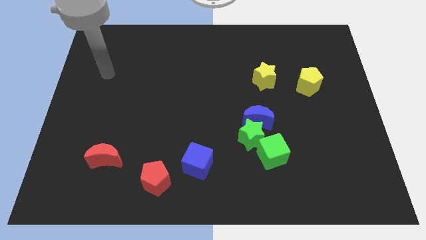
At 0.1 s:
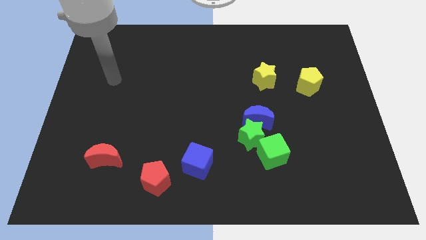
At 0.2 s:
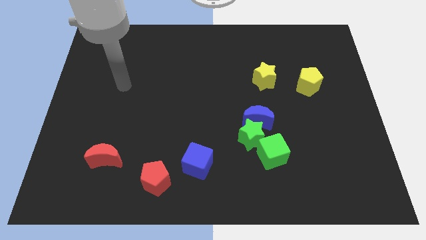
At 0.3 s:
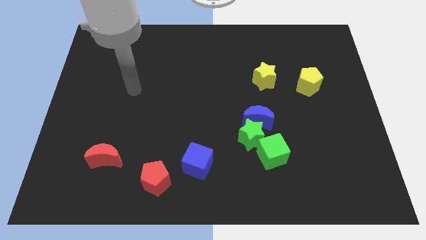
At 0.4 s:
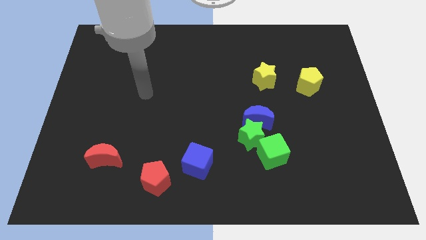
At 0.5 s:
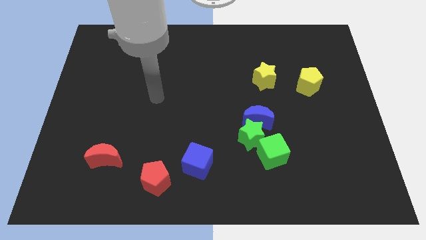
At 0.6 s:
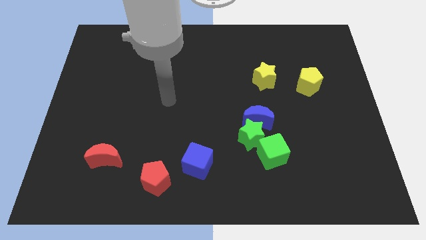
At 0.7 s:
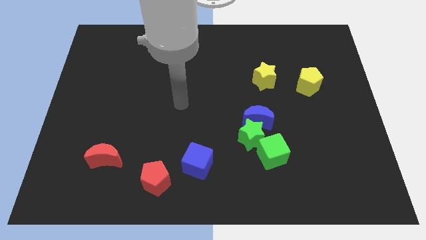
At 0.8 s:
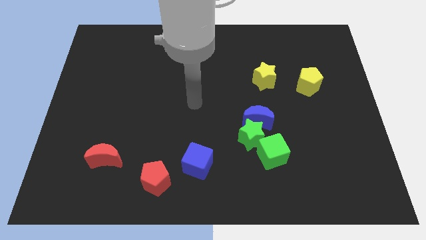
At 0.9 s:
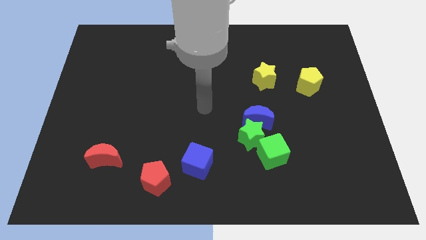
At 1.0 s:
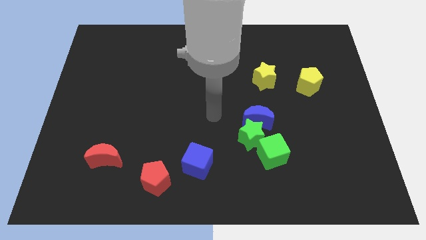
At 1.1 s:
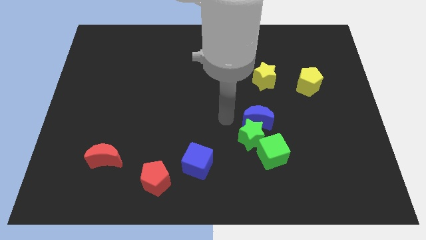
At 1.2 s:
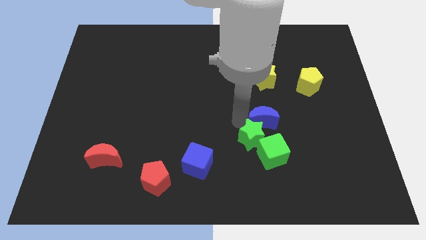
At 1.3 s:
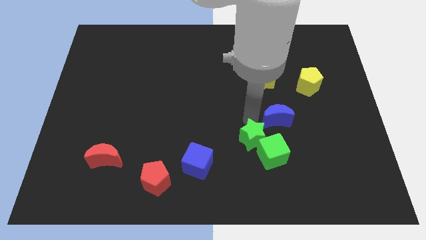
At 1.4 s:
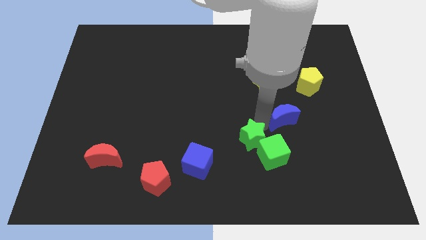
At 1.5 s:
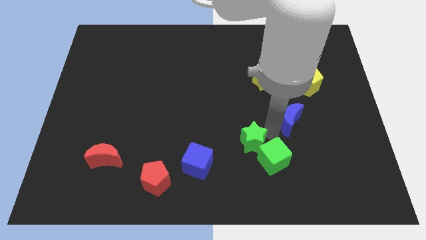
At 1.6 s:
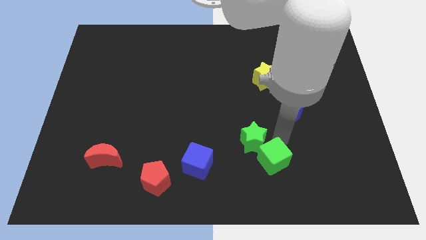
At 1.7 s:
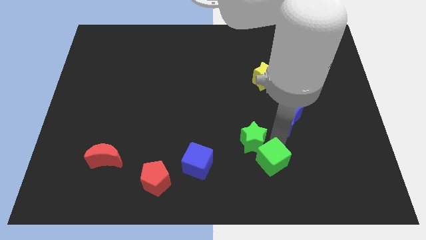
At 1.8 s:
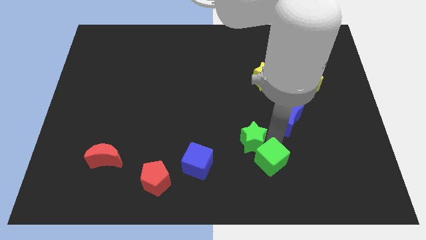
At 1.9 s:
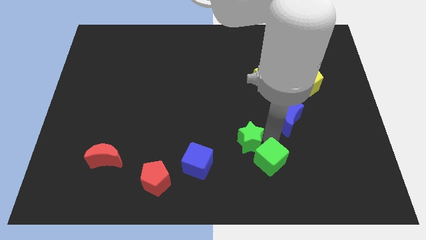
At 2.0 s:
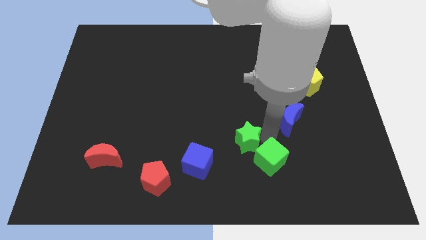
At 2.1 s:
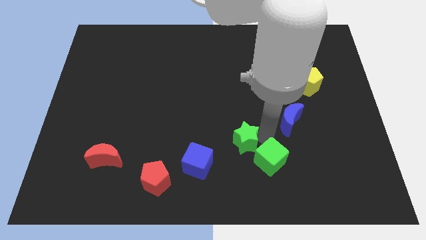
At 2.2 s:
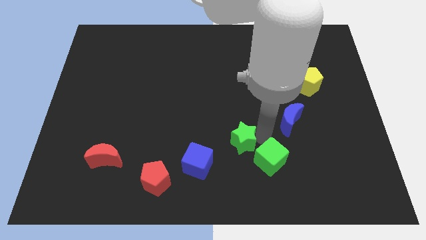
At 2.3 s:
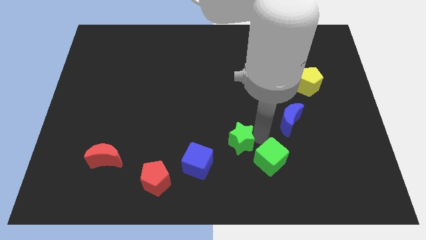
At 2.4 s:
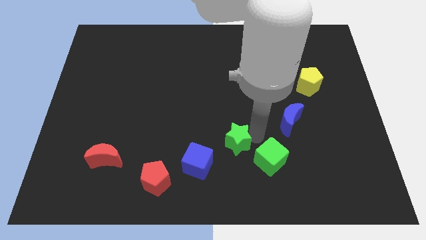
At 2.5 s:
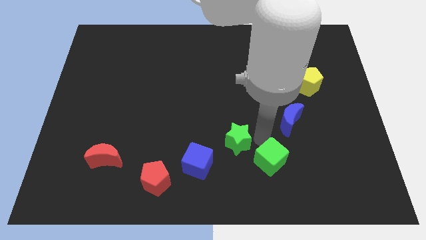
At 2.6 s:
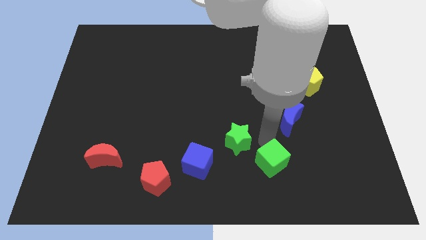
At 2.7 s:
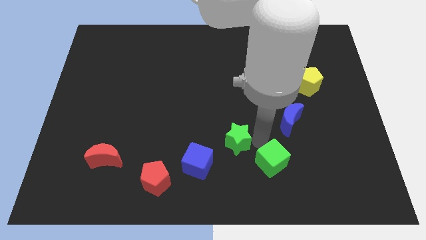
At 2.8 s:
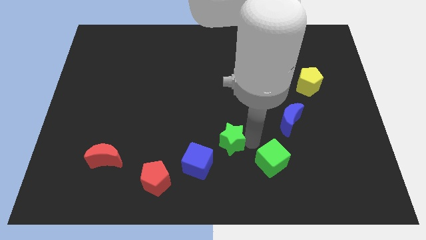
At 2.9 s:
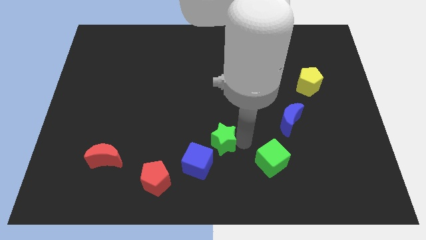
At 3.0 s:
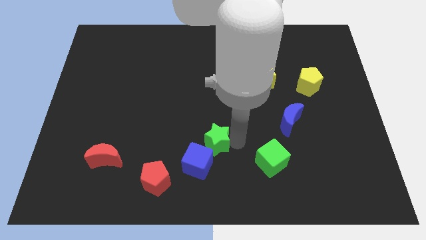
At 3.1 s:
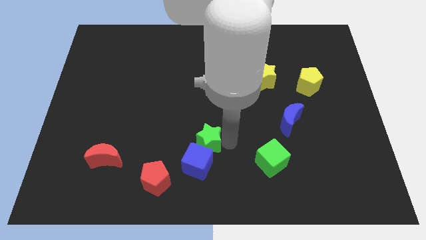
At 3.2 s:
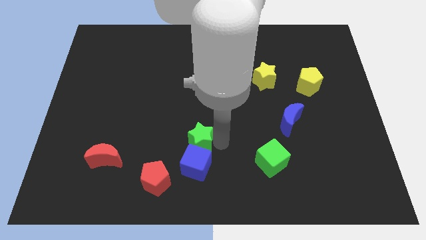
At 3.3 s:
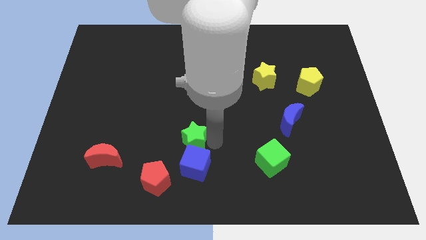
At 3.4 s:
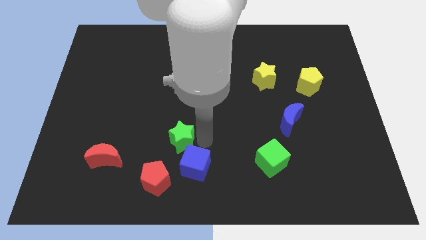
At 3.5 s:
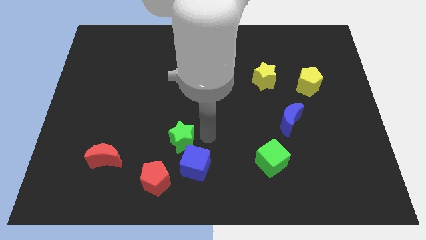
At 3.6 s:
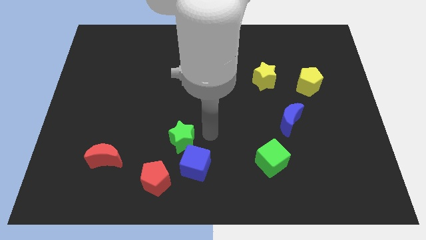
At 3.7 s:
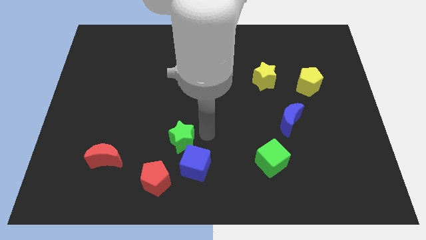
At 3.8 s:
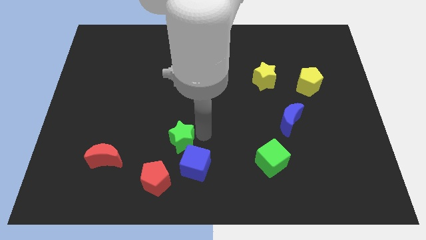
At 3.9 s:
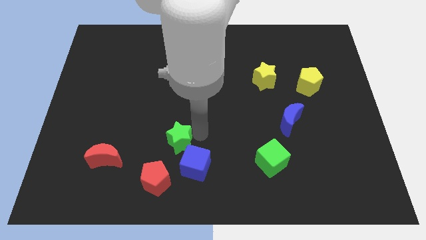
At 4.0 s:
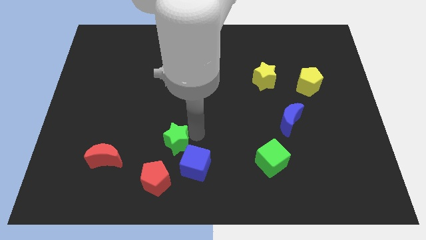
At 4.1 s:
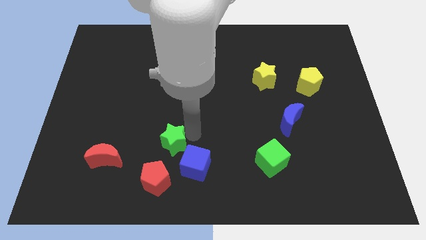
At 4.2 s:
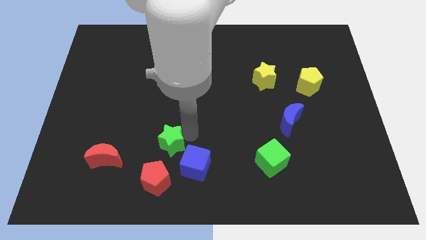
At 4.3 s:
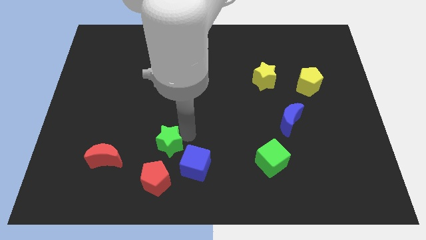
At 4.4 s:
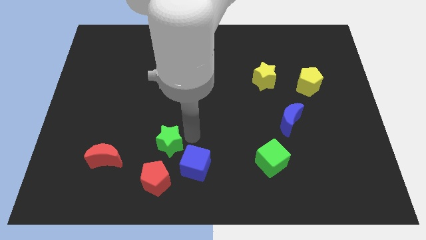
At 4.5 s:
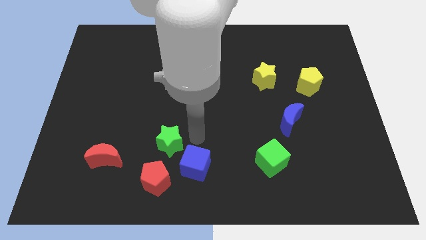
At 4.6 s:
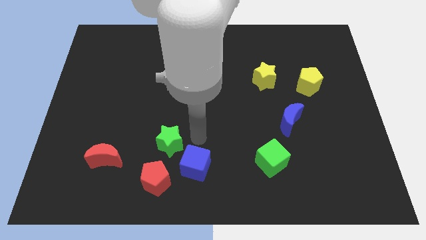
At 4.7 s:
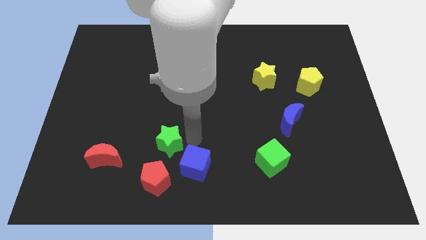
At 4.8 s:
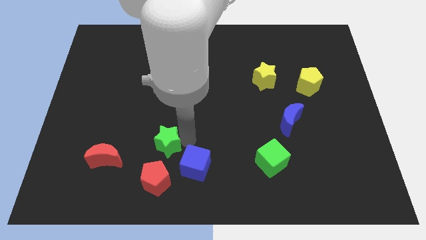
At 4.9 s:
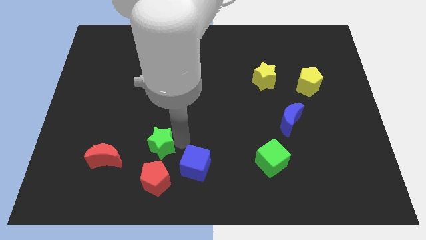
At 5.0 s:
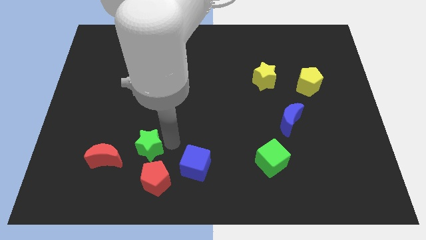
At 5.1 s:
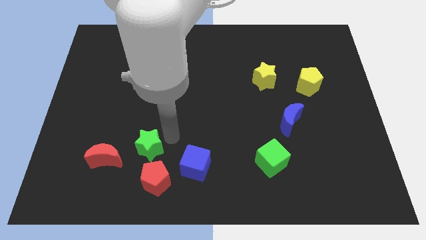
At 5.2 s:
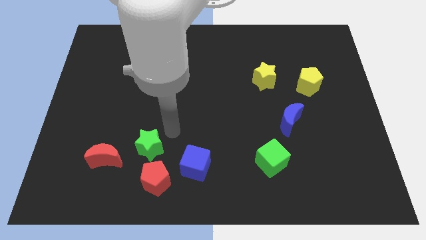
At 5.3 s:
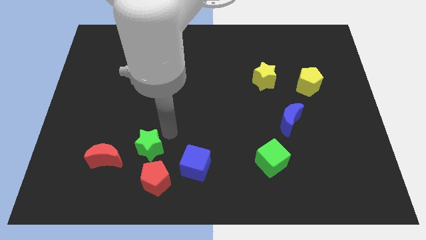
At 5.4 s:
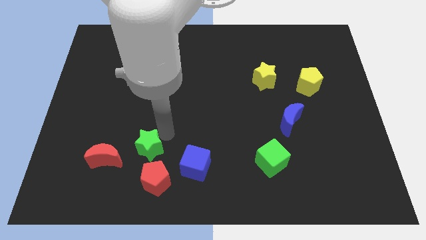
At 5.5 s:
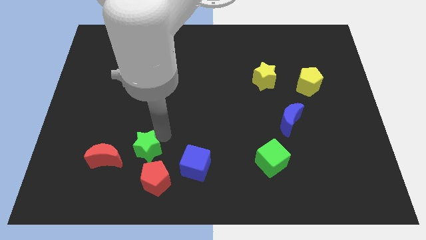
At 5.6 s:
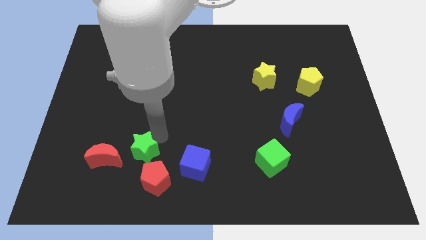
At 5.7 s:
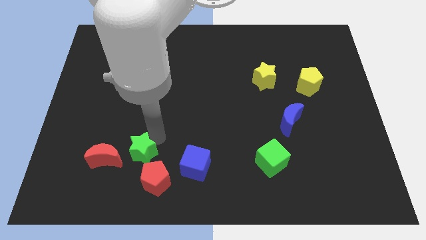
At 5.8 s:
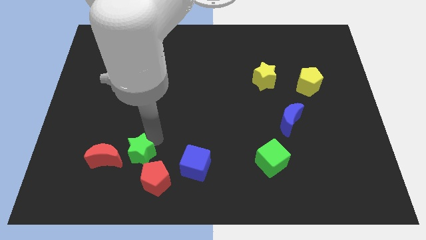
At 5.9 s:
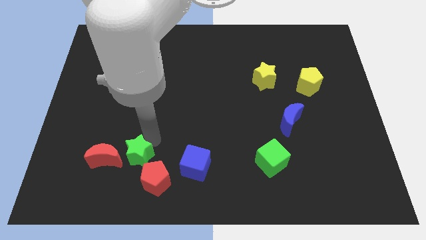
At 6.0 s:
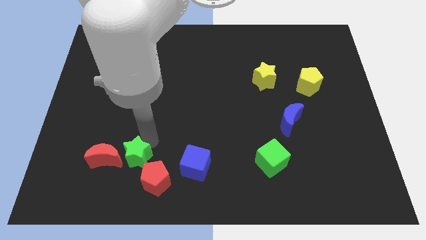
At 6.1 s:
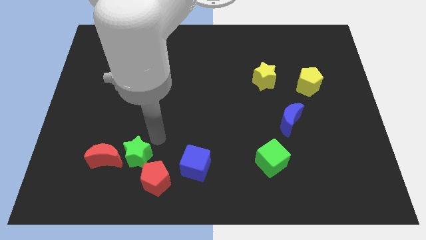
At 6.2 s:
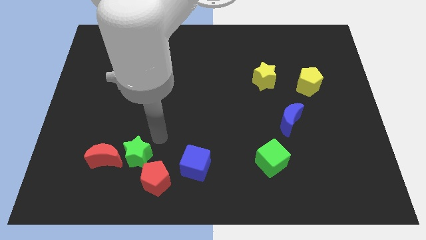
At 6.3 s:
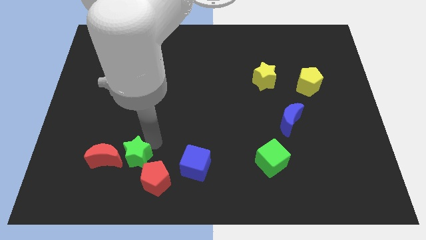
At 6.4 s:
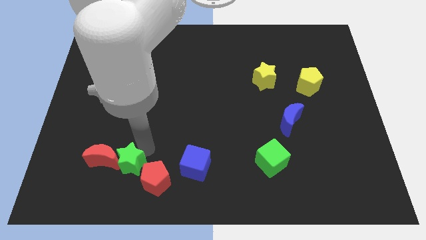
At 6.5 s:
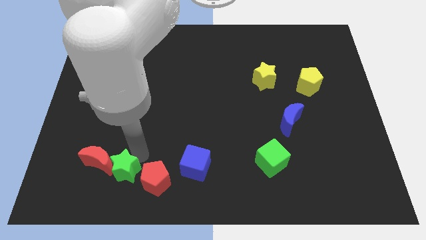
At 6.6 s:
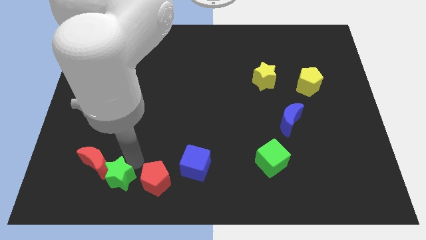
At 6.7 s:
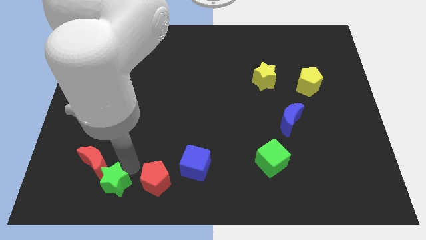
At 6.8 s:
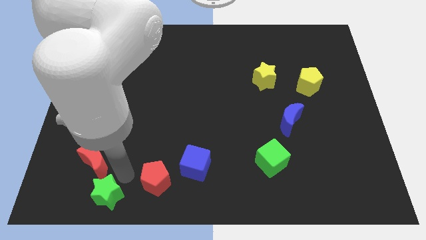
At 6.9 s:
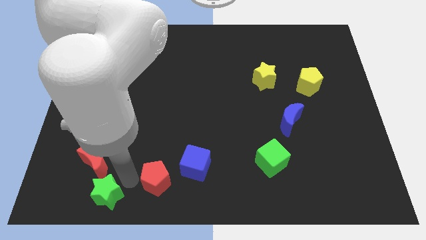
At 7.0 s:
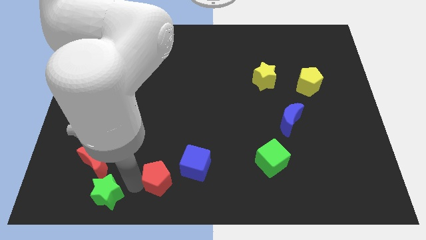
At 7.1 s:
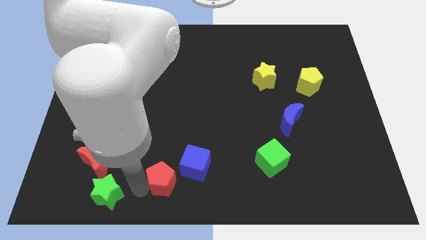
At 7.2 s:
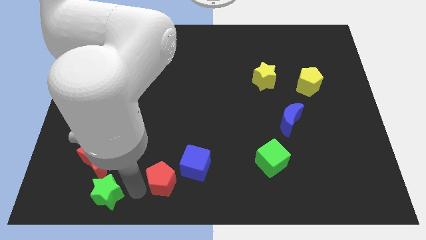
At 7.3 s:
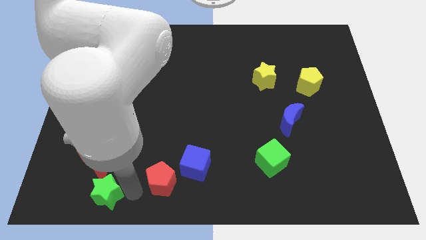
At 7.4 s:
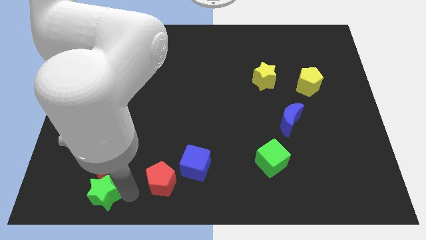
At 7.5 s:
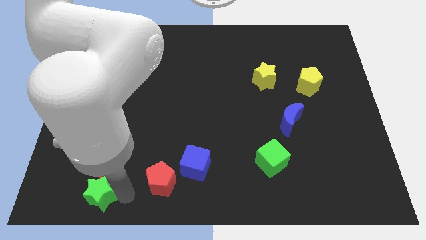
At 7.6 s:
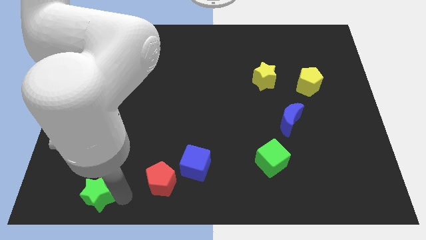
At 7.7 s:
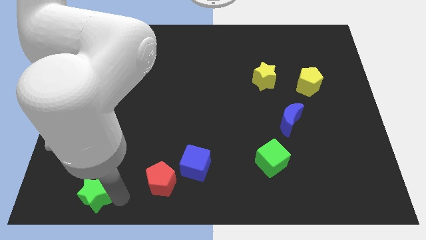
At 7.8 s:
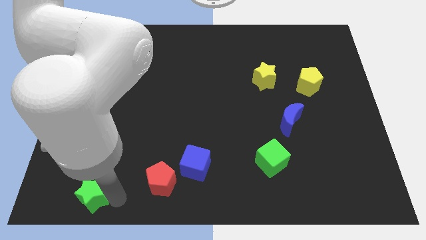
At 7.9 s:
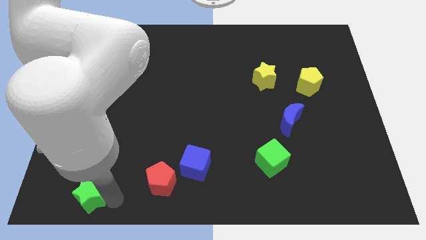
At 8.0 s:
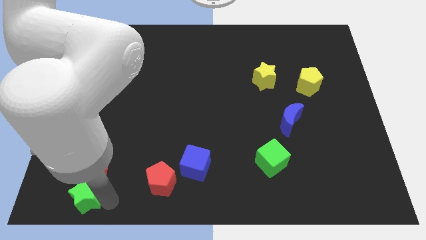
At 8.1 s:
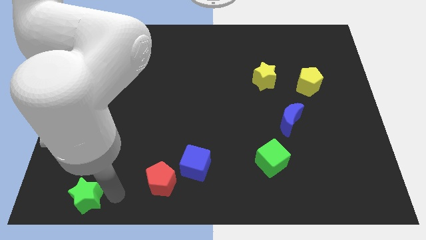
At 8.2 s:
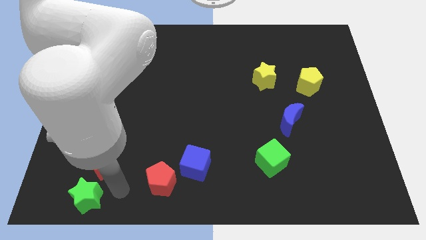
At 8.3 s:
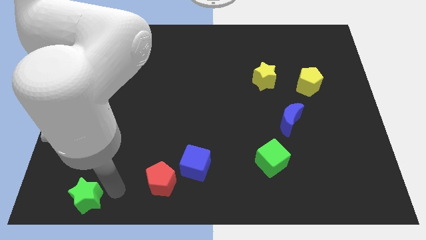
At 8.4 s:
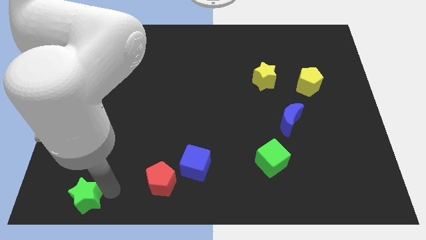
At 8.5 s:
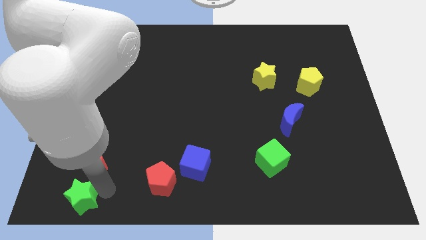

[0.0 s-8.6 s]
put the green star to the lower left corner
